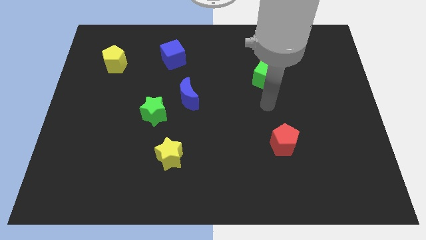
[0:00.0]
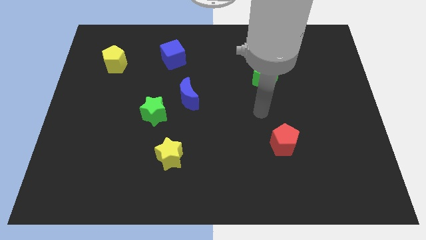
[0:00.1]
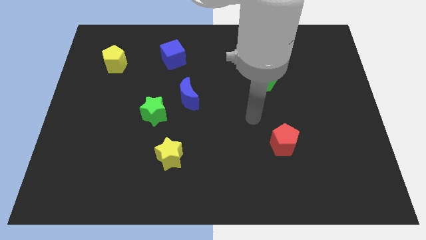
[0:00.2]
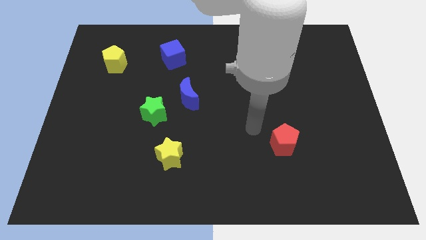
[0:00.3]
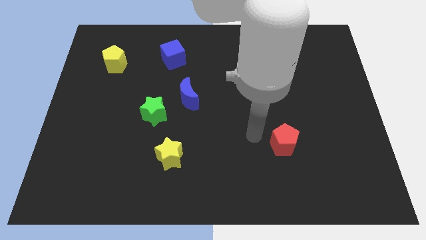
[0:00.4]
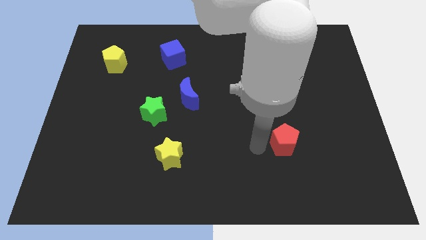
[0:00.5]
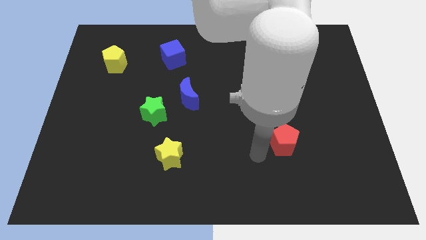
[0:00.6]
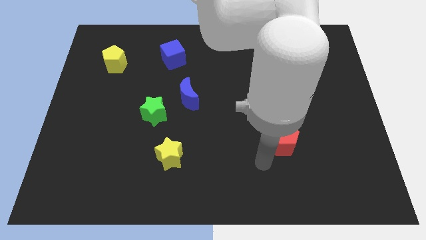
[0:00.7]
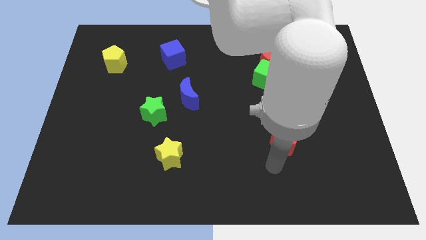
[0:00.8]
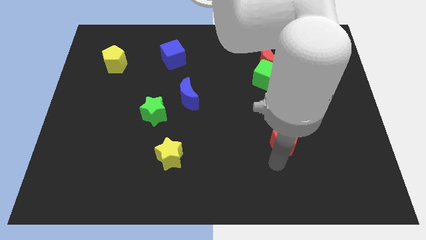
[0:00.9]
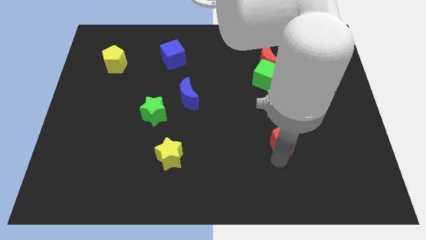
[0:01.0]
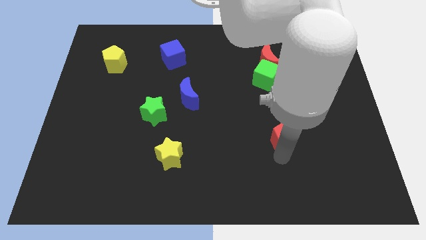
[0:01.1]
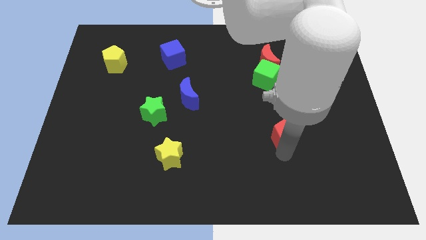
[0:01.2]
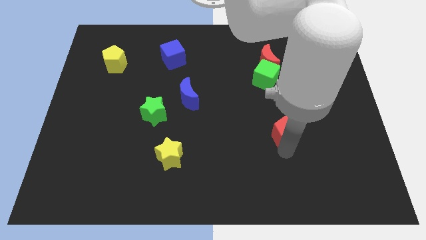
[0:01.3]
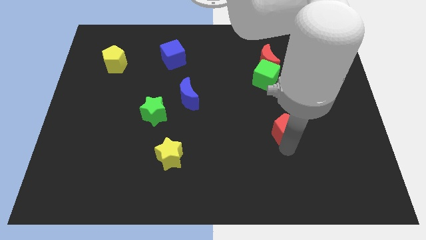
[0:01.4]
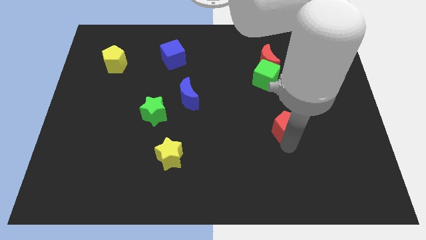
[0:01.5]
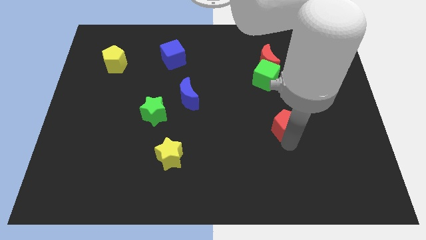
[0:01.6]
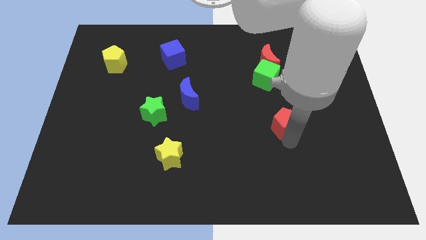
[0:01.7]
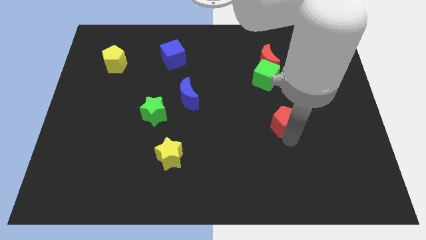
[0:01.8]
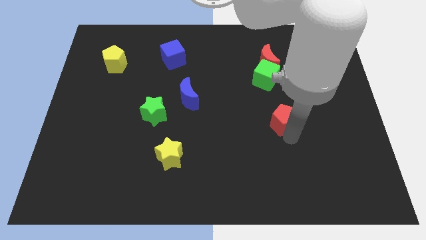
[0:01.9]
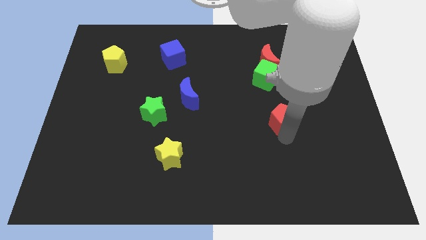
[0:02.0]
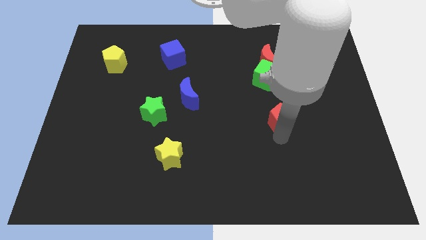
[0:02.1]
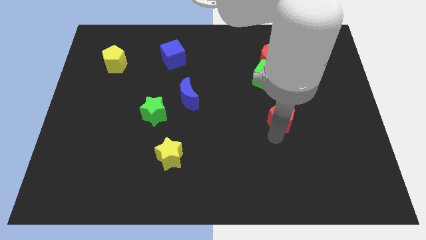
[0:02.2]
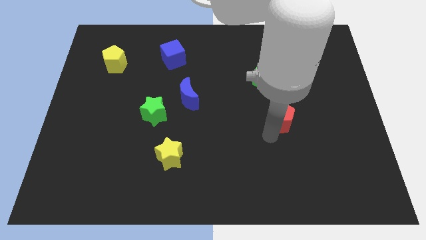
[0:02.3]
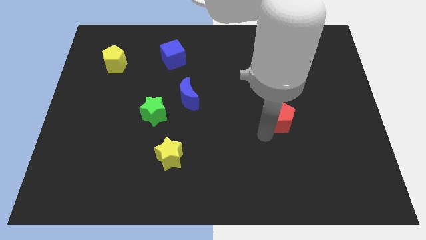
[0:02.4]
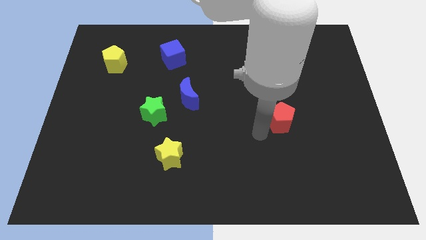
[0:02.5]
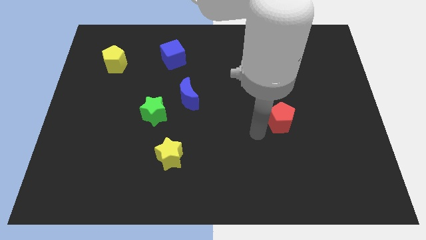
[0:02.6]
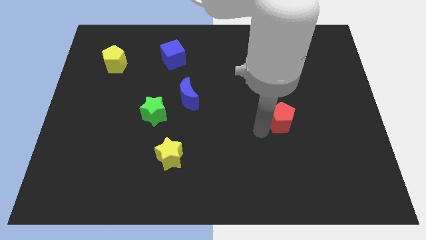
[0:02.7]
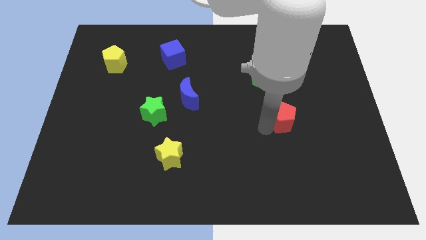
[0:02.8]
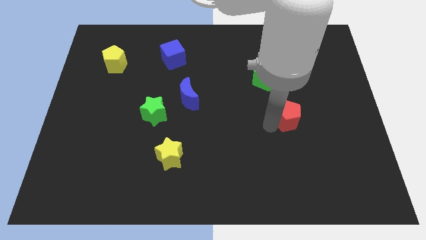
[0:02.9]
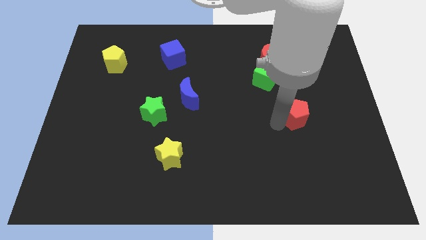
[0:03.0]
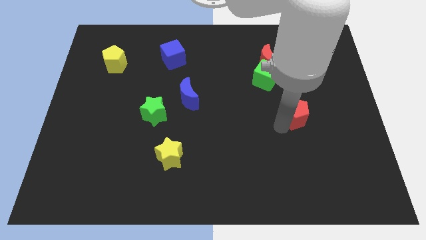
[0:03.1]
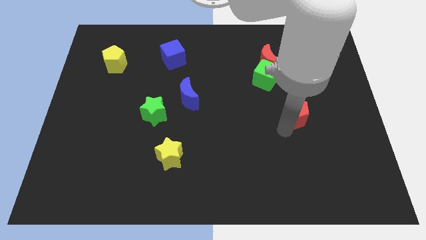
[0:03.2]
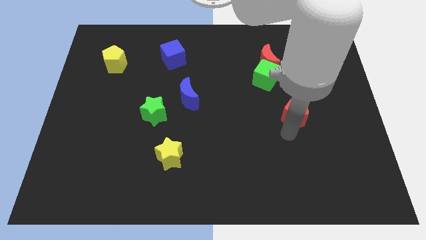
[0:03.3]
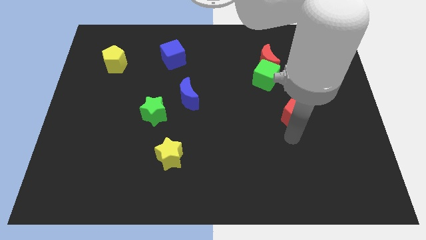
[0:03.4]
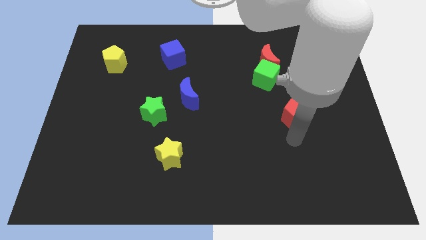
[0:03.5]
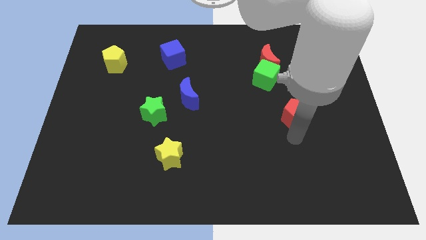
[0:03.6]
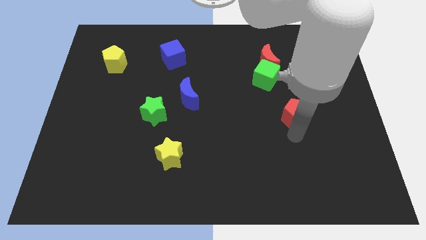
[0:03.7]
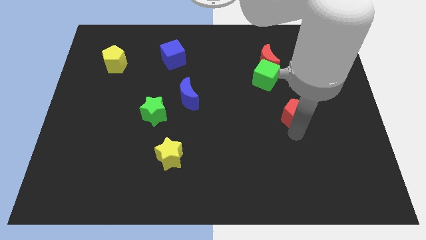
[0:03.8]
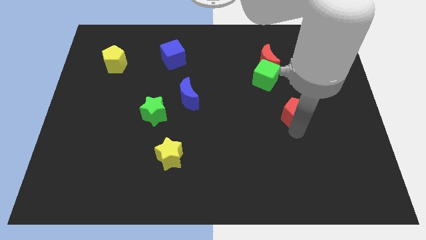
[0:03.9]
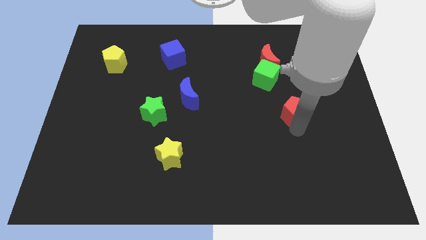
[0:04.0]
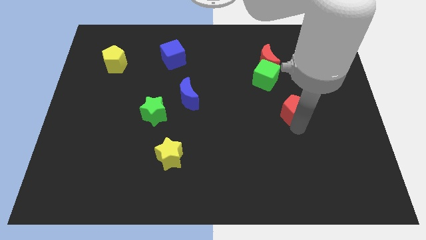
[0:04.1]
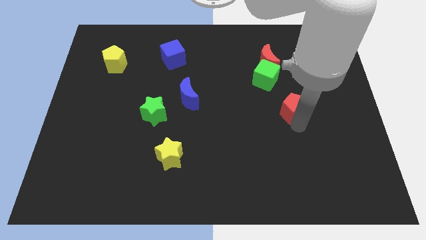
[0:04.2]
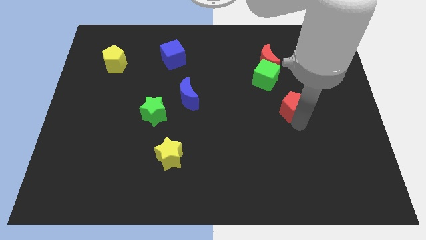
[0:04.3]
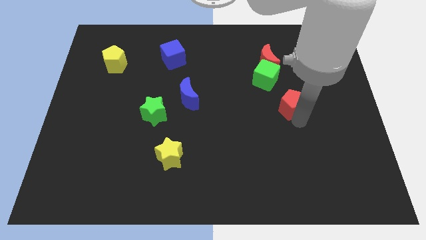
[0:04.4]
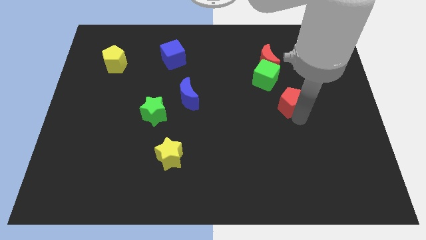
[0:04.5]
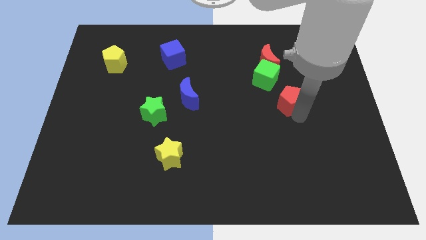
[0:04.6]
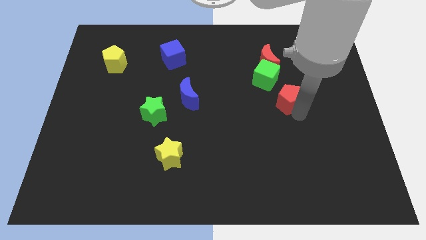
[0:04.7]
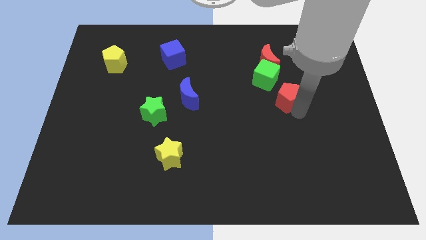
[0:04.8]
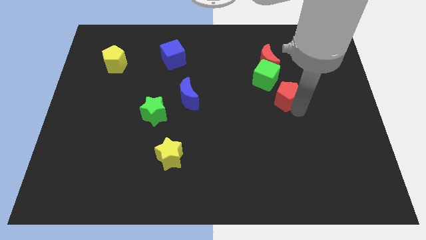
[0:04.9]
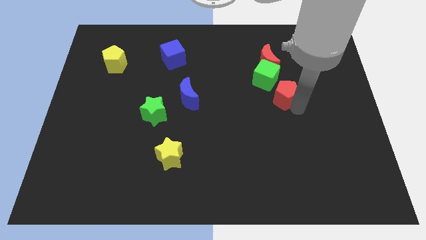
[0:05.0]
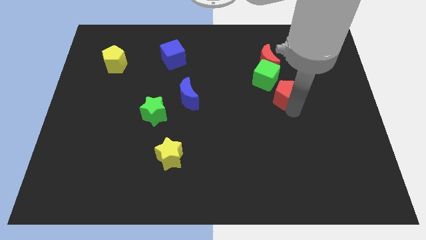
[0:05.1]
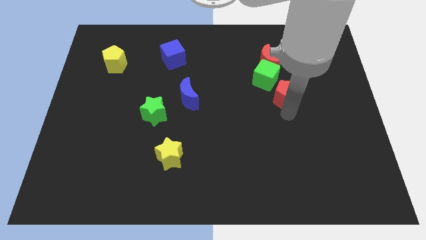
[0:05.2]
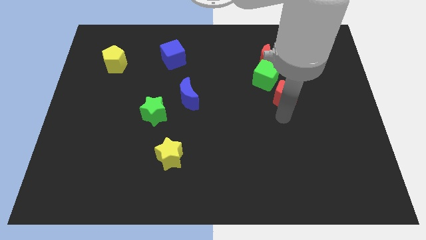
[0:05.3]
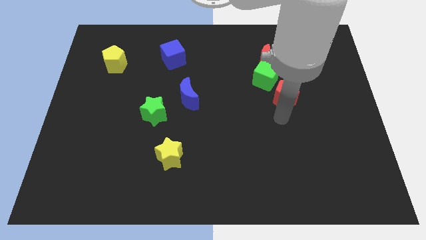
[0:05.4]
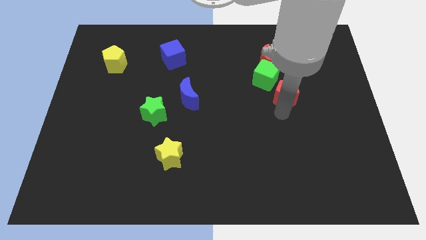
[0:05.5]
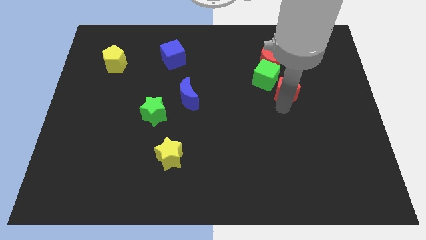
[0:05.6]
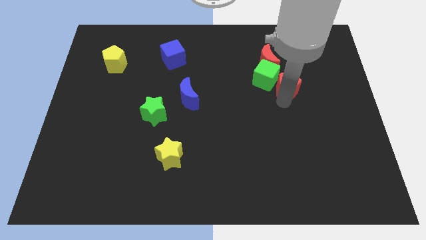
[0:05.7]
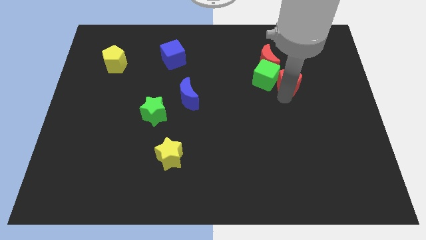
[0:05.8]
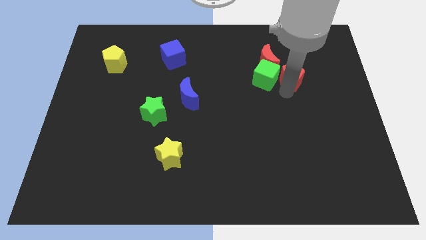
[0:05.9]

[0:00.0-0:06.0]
push the red pentagon to the top right side of the green cube
